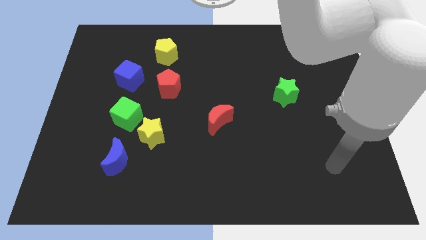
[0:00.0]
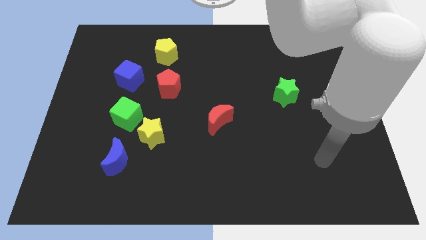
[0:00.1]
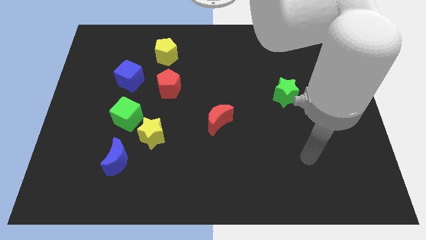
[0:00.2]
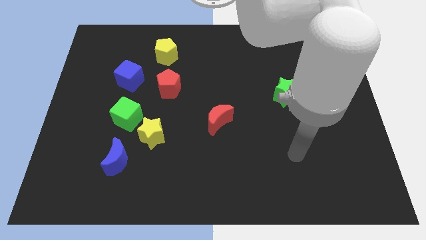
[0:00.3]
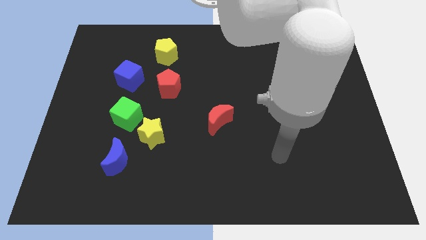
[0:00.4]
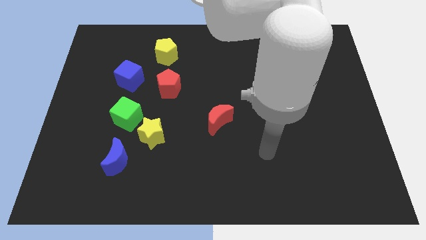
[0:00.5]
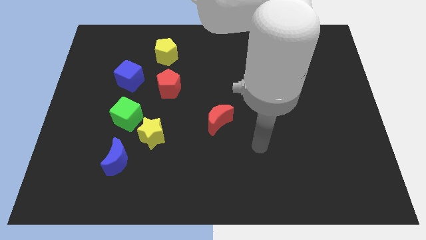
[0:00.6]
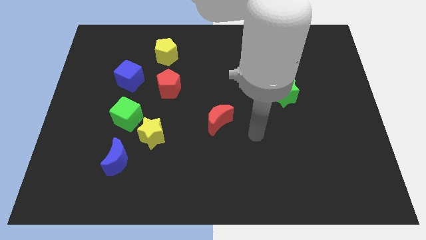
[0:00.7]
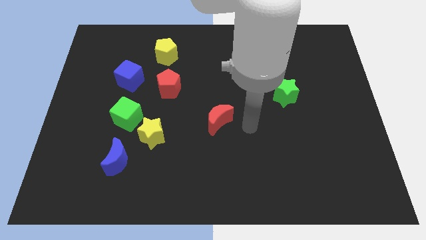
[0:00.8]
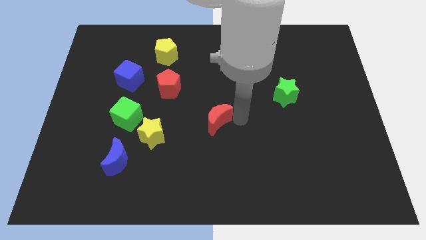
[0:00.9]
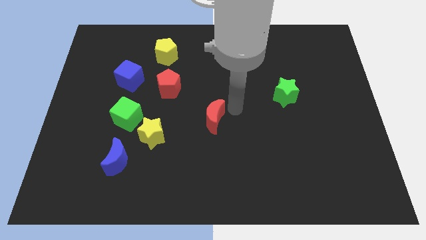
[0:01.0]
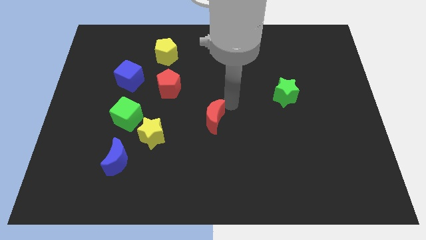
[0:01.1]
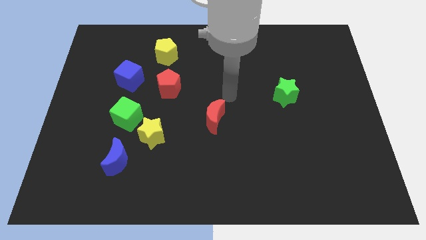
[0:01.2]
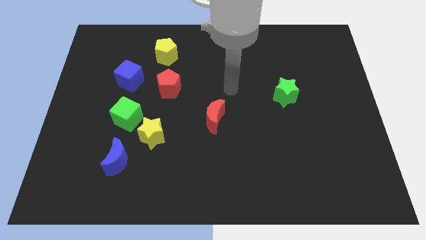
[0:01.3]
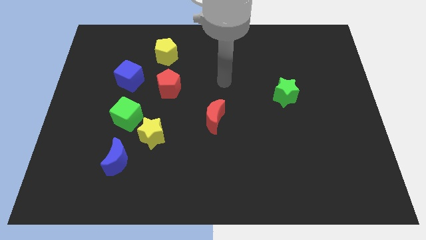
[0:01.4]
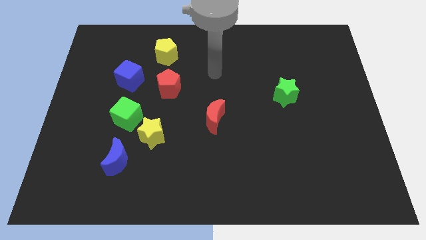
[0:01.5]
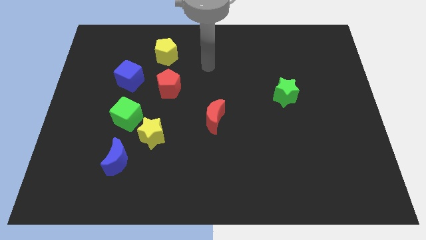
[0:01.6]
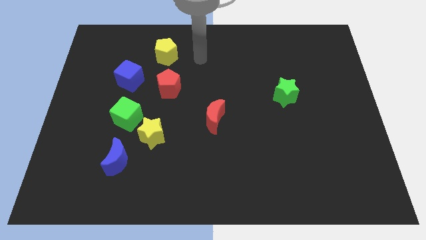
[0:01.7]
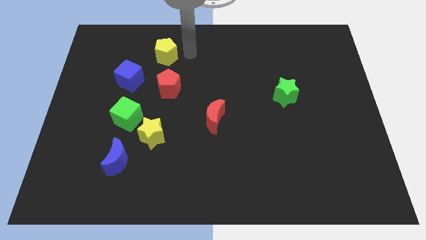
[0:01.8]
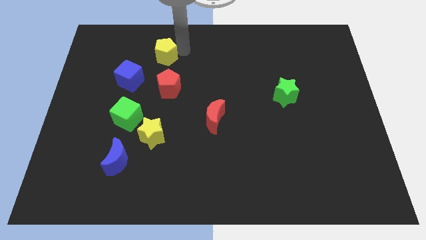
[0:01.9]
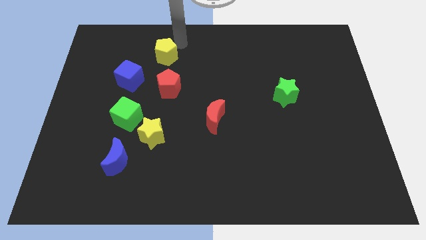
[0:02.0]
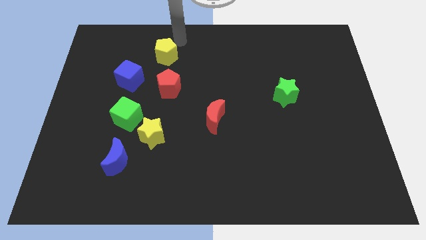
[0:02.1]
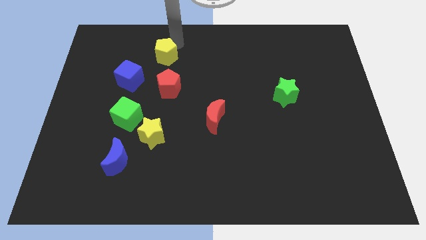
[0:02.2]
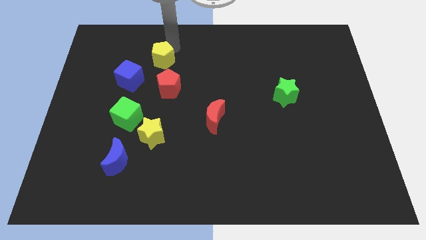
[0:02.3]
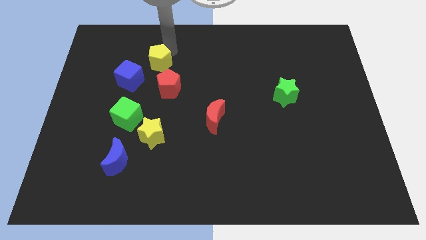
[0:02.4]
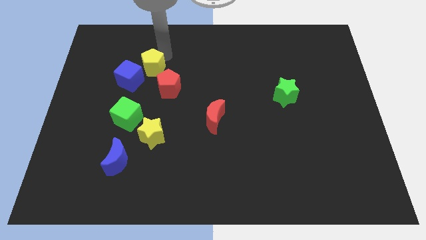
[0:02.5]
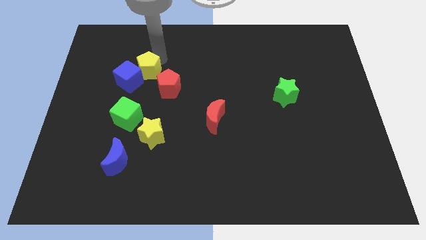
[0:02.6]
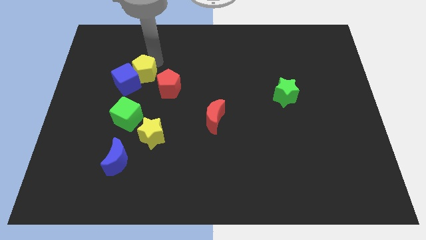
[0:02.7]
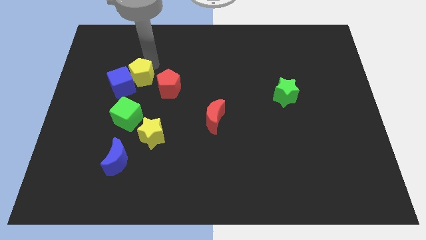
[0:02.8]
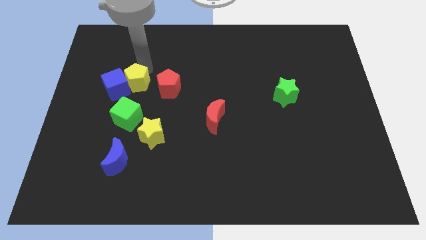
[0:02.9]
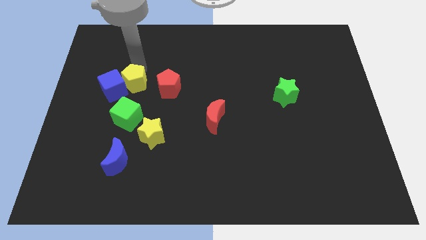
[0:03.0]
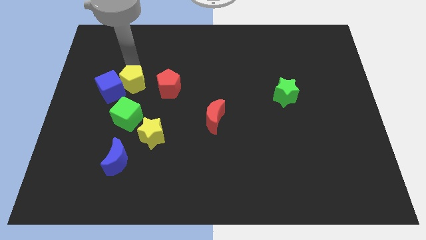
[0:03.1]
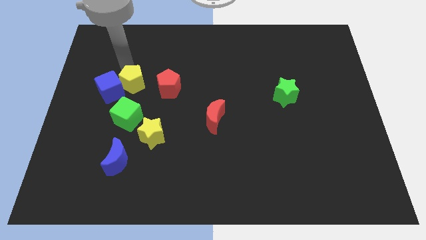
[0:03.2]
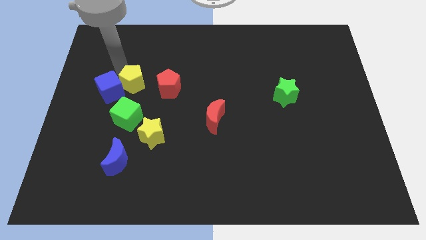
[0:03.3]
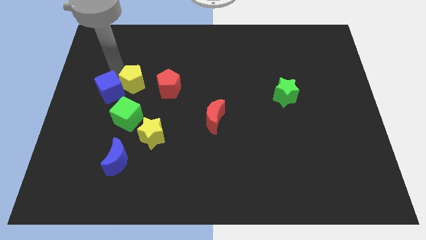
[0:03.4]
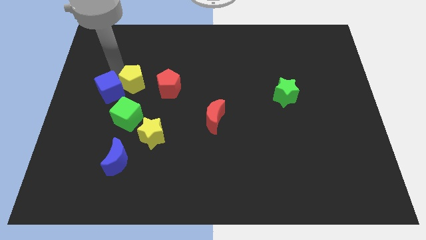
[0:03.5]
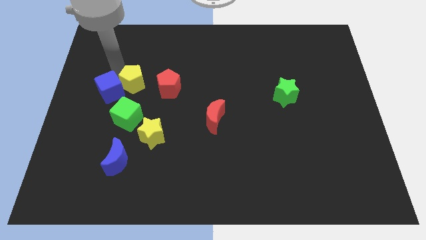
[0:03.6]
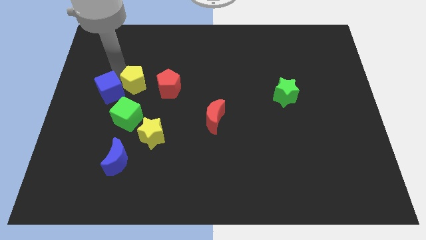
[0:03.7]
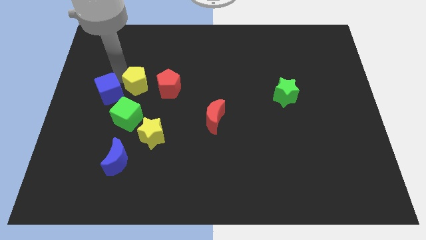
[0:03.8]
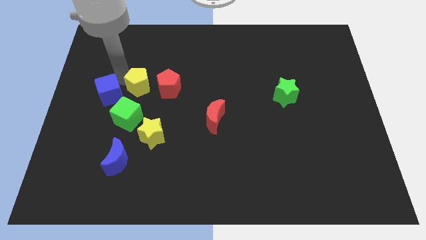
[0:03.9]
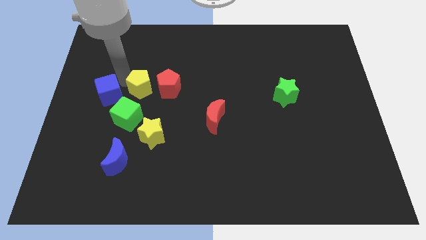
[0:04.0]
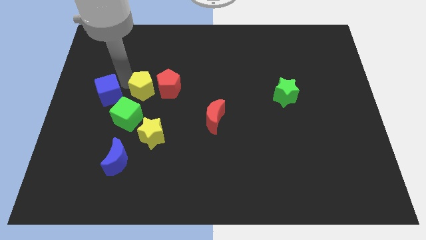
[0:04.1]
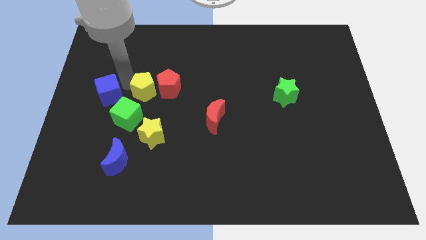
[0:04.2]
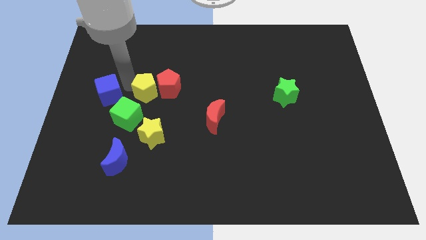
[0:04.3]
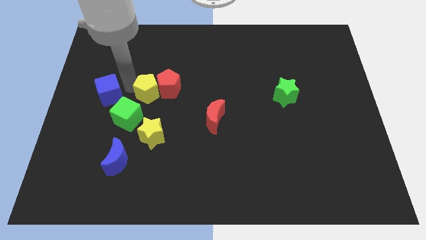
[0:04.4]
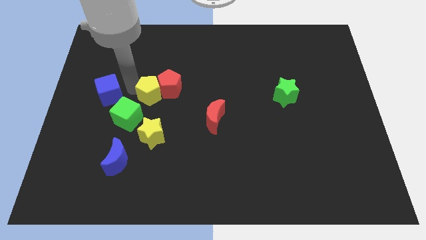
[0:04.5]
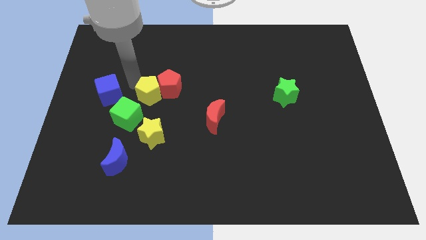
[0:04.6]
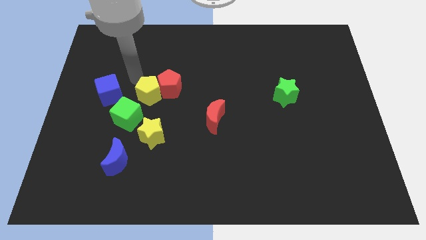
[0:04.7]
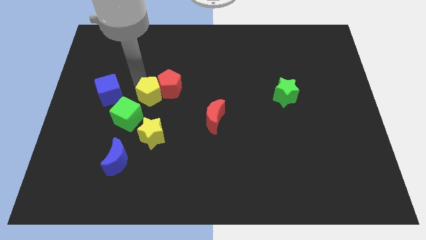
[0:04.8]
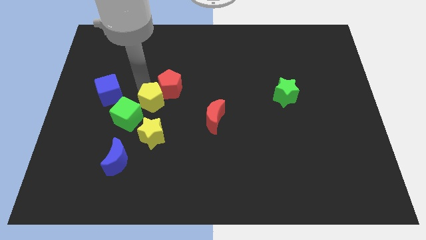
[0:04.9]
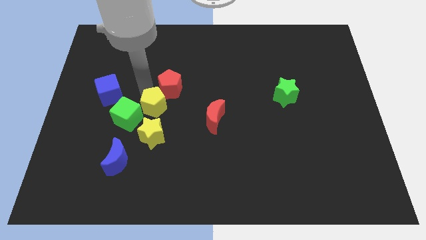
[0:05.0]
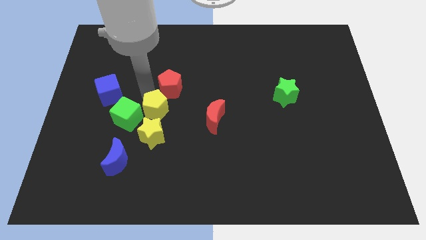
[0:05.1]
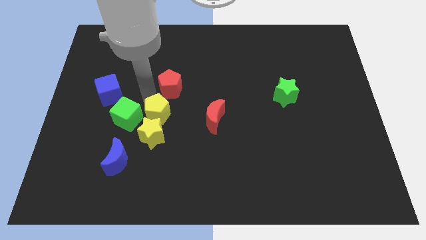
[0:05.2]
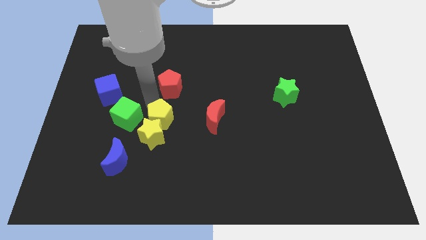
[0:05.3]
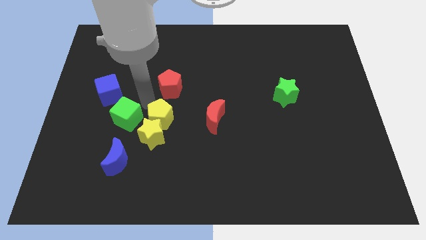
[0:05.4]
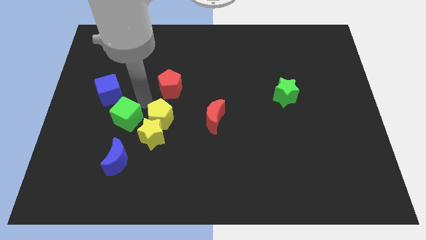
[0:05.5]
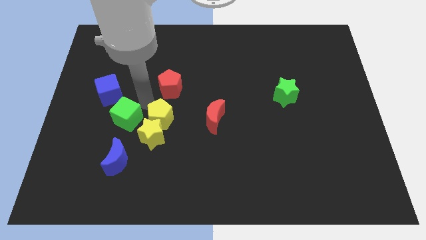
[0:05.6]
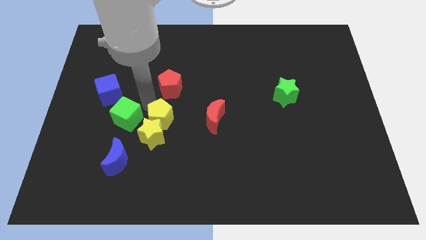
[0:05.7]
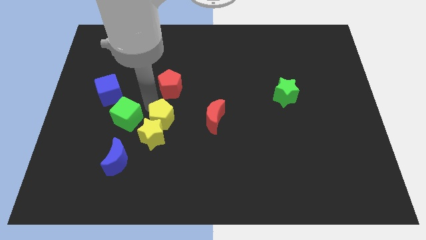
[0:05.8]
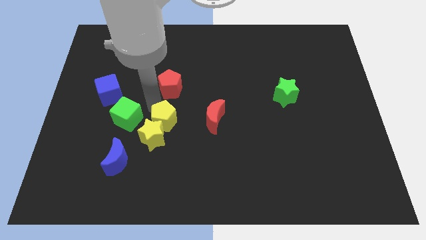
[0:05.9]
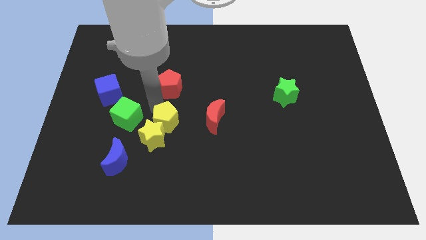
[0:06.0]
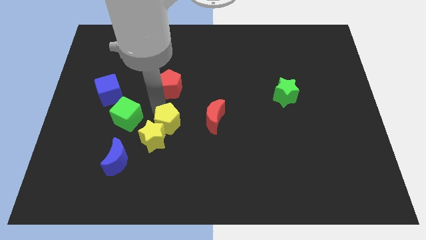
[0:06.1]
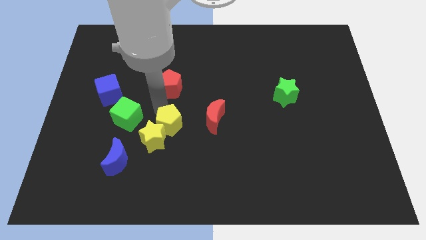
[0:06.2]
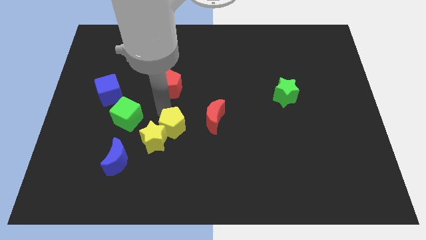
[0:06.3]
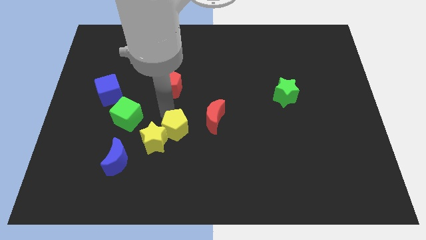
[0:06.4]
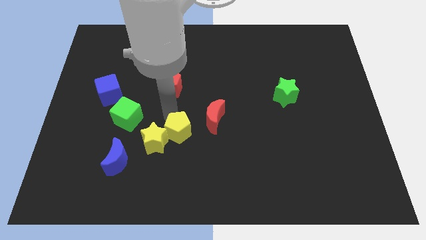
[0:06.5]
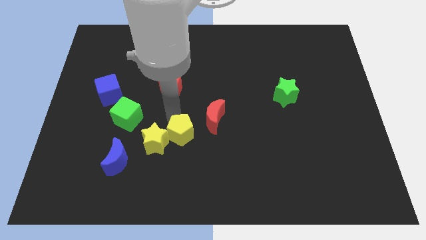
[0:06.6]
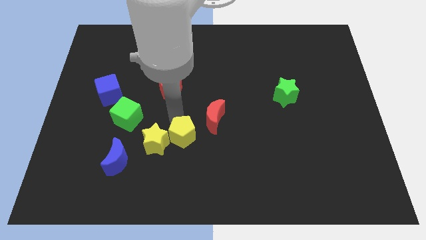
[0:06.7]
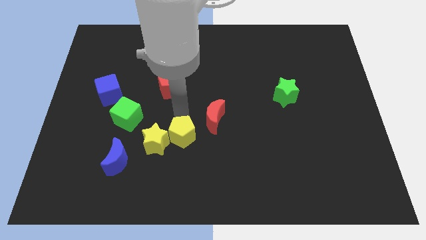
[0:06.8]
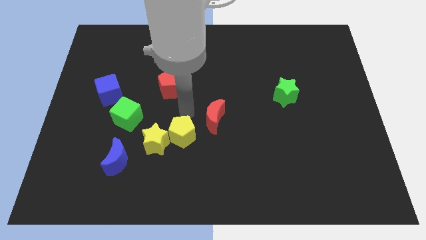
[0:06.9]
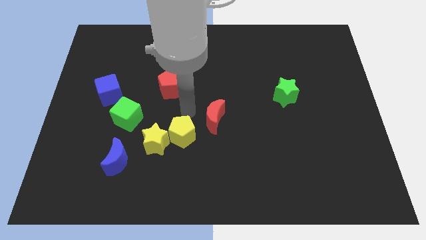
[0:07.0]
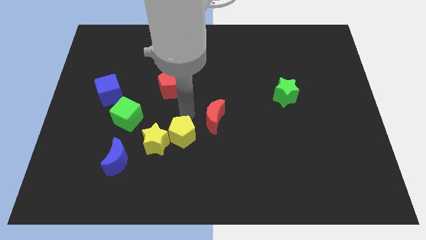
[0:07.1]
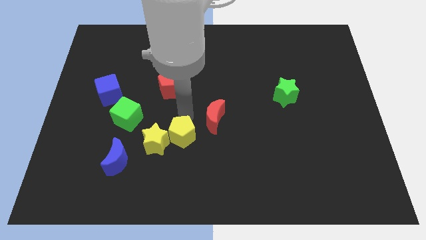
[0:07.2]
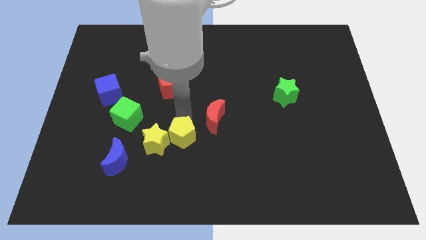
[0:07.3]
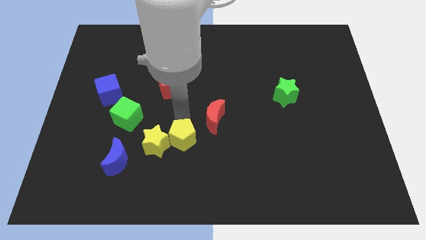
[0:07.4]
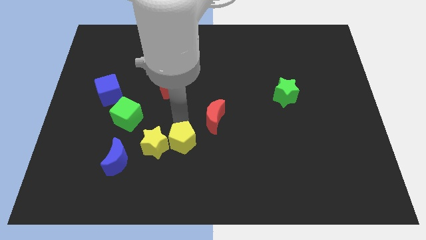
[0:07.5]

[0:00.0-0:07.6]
move the yellow pentagon diagonally down and to the right of the yellow star

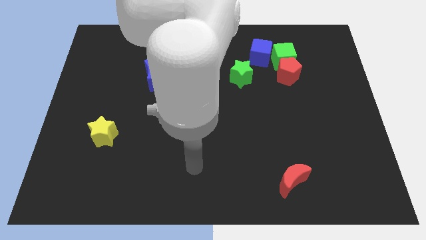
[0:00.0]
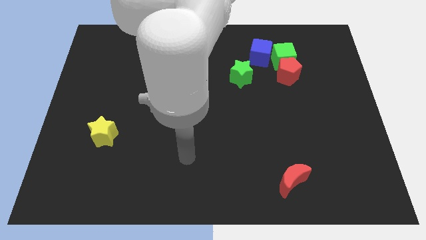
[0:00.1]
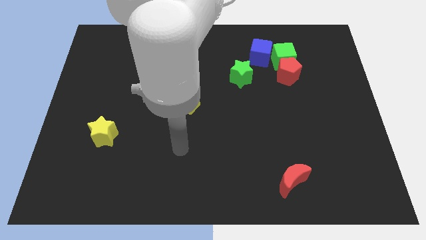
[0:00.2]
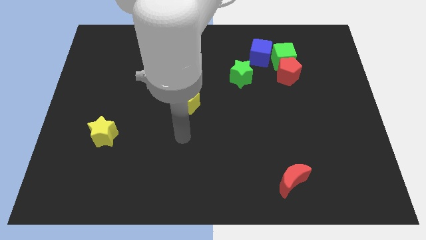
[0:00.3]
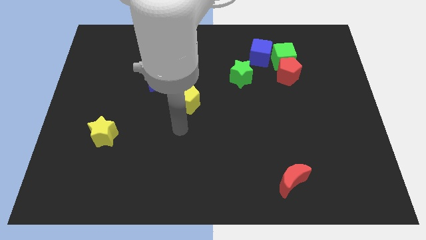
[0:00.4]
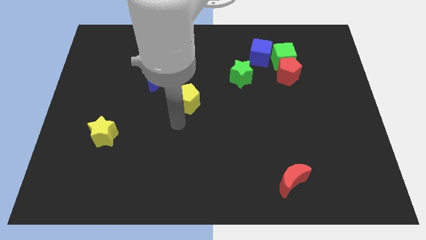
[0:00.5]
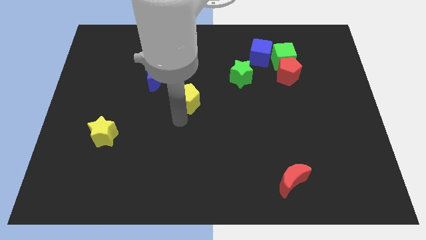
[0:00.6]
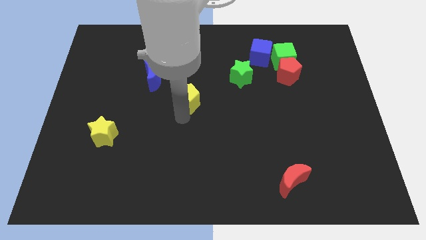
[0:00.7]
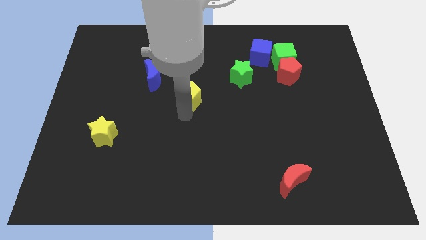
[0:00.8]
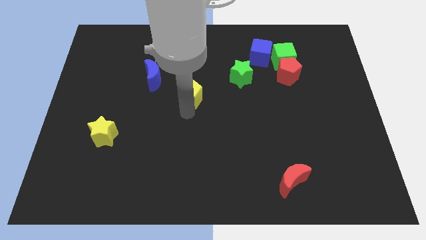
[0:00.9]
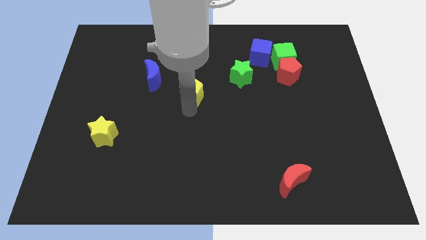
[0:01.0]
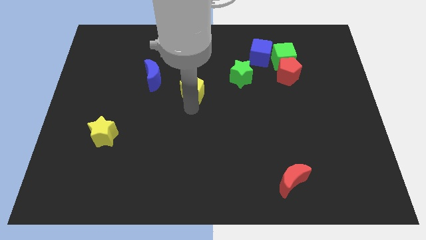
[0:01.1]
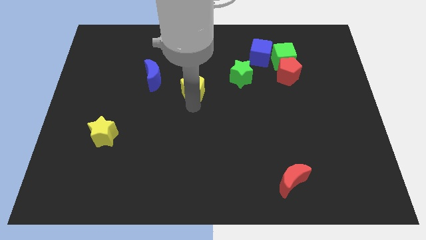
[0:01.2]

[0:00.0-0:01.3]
move the yellow pentagon just left of the green star
